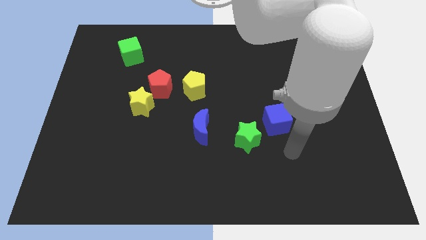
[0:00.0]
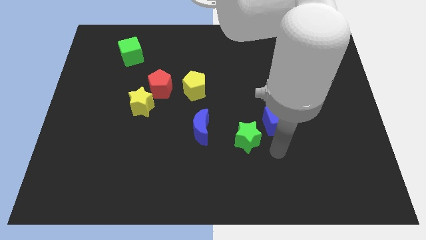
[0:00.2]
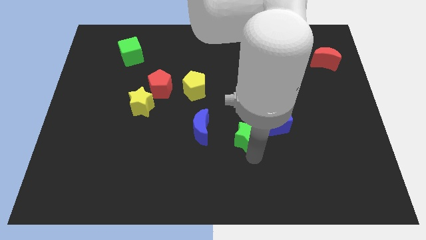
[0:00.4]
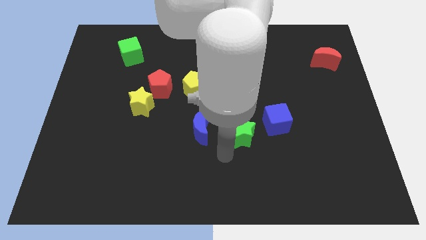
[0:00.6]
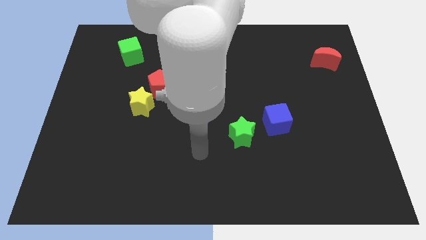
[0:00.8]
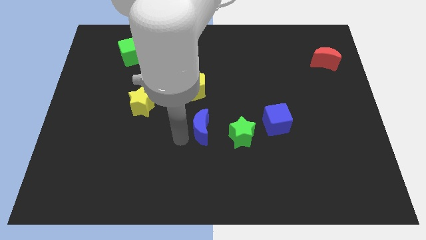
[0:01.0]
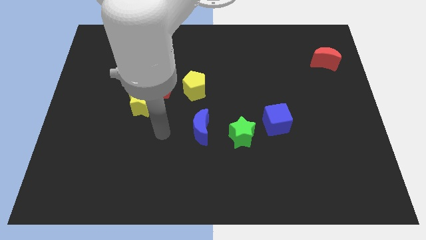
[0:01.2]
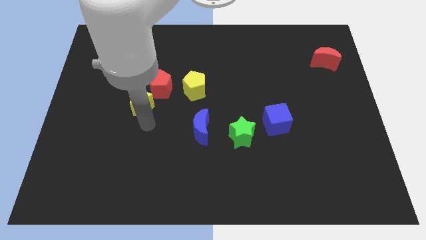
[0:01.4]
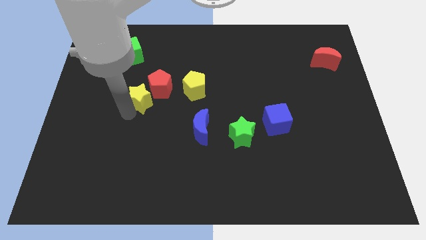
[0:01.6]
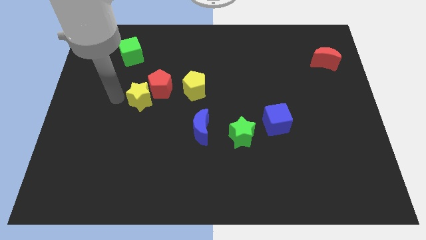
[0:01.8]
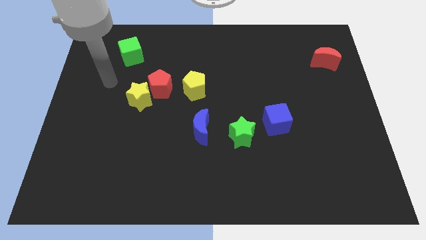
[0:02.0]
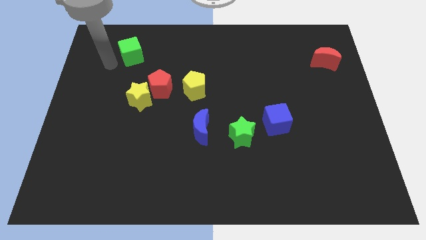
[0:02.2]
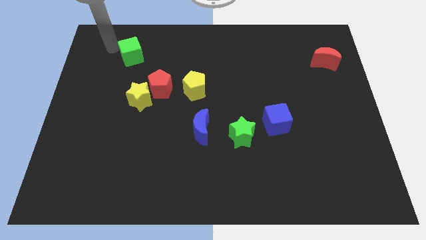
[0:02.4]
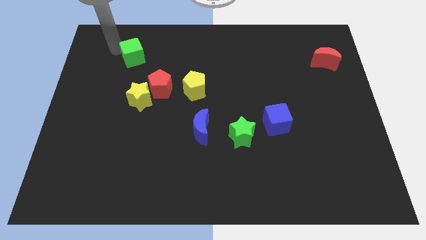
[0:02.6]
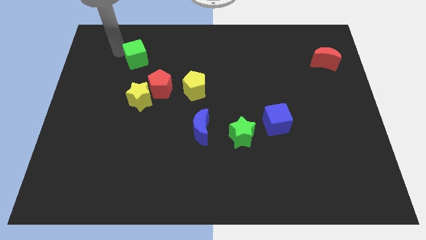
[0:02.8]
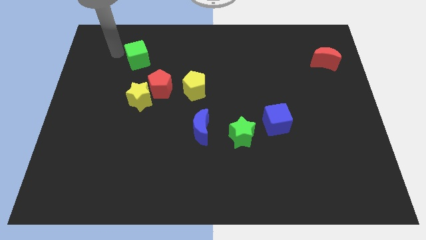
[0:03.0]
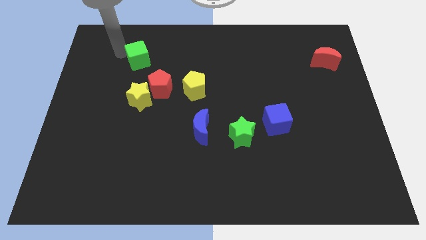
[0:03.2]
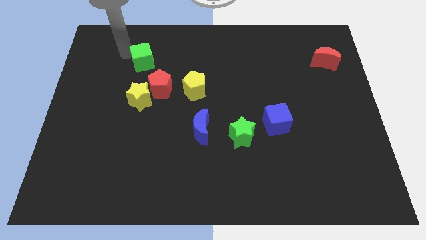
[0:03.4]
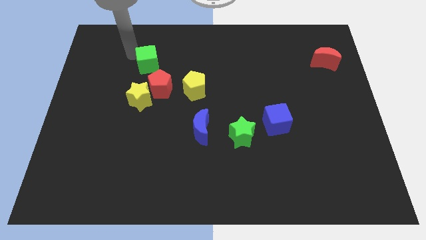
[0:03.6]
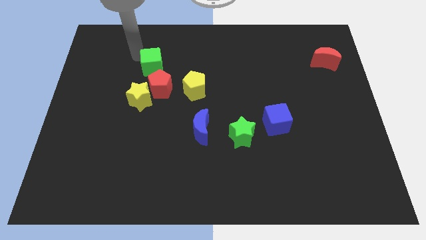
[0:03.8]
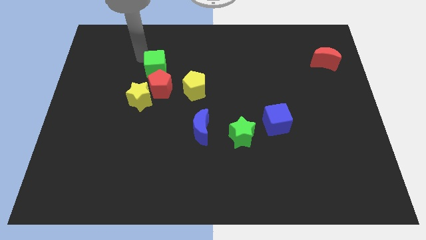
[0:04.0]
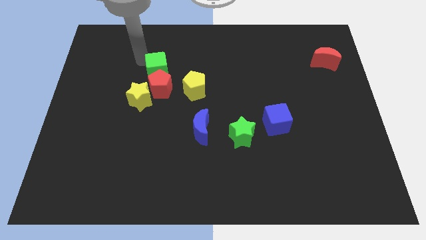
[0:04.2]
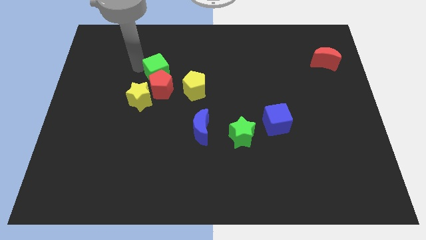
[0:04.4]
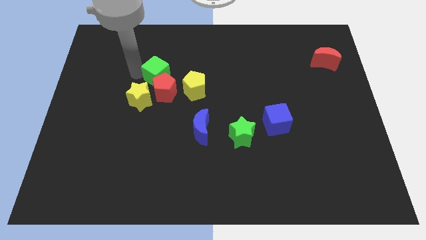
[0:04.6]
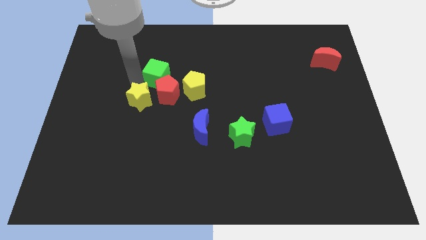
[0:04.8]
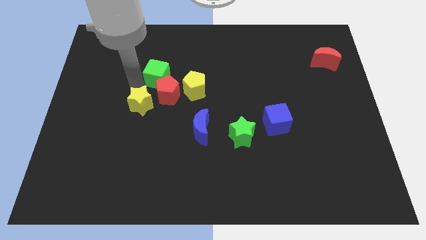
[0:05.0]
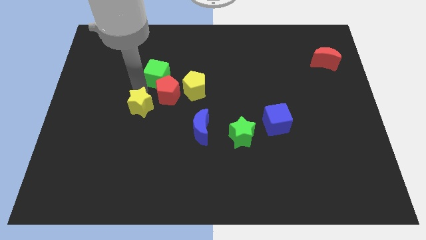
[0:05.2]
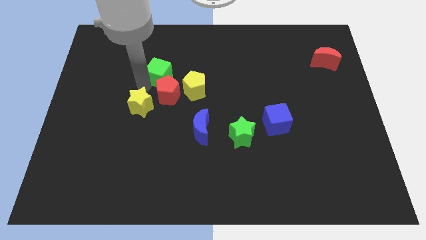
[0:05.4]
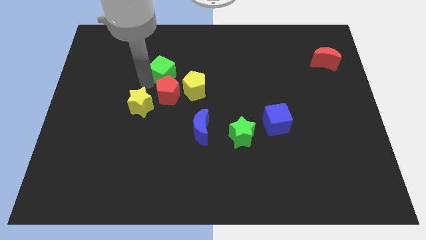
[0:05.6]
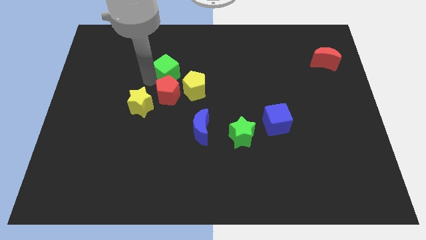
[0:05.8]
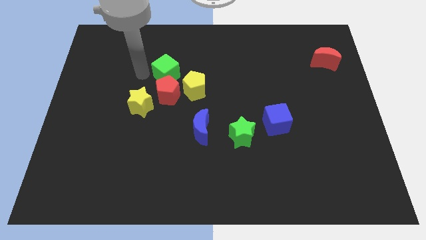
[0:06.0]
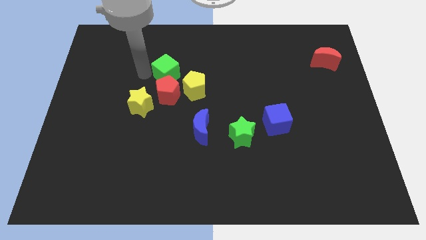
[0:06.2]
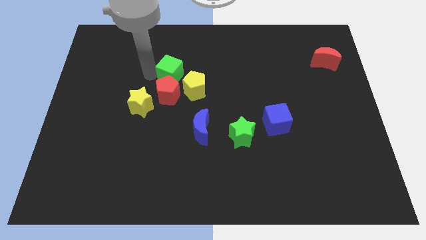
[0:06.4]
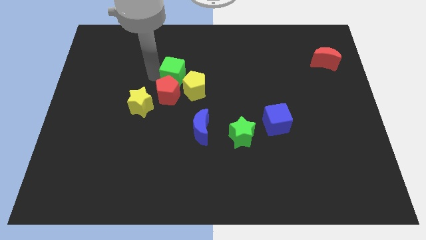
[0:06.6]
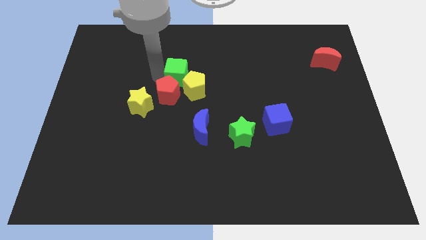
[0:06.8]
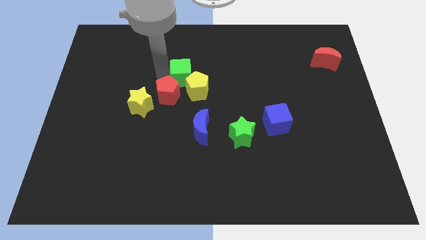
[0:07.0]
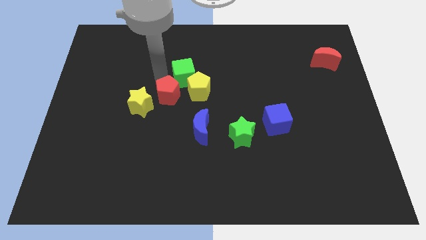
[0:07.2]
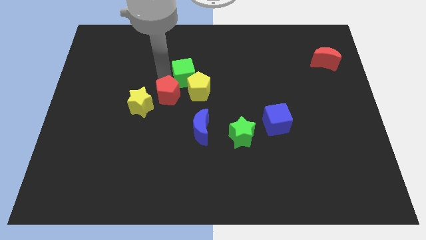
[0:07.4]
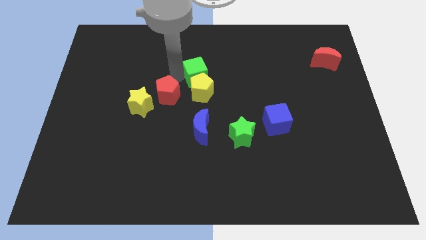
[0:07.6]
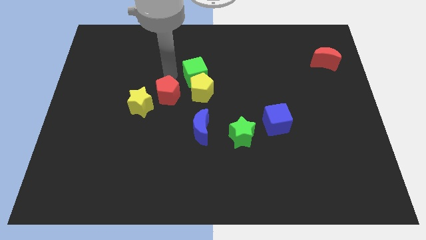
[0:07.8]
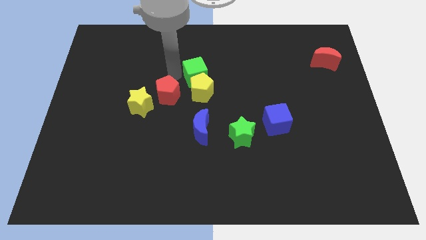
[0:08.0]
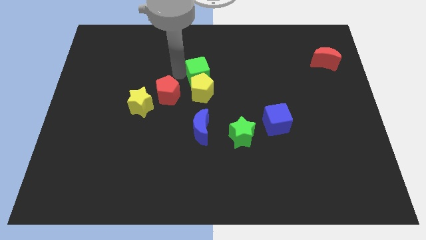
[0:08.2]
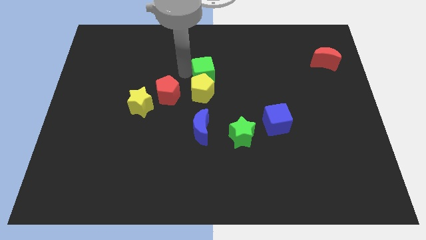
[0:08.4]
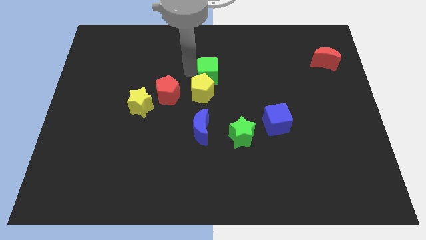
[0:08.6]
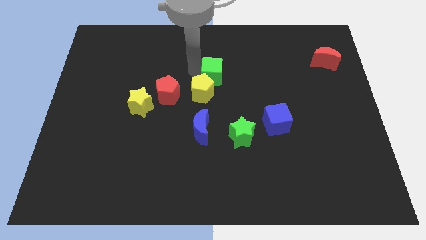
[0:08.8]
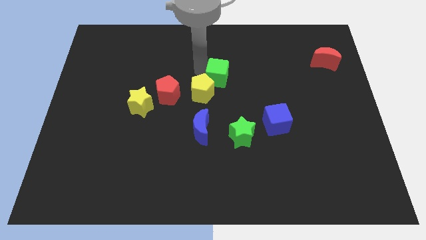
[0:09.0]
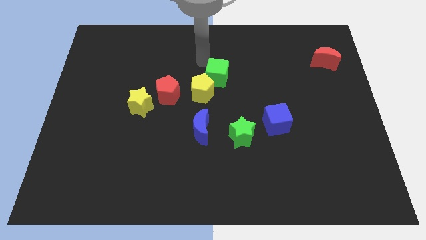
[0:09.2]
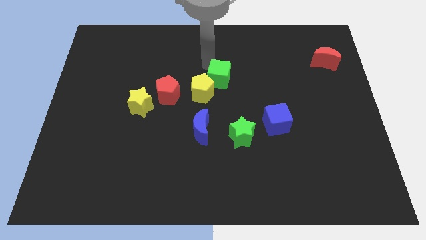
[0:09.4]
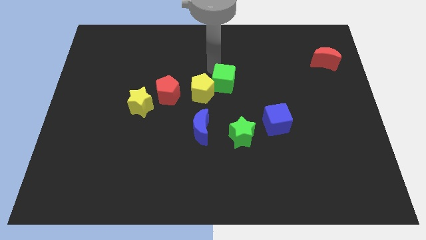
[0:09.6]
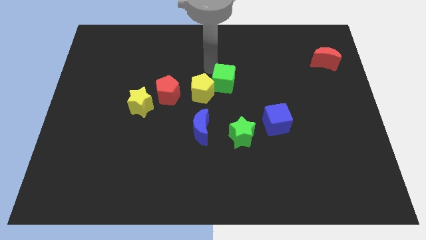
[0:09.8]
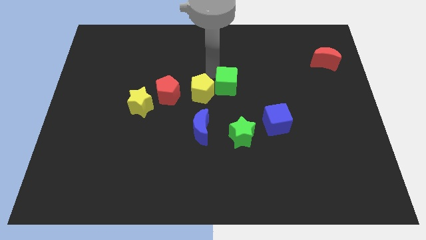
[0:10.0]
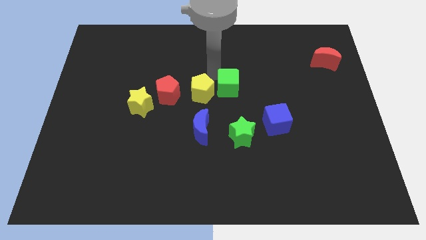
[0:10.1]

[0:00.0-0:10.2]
slide the green cube to the top side of the green star

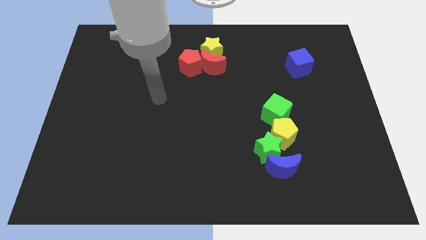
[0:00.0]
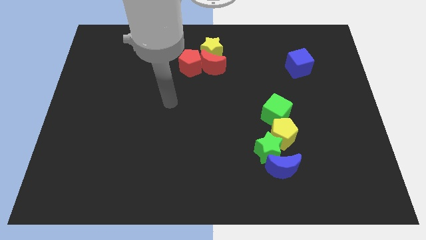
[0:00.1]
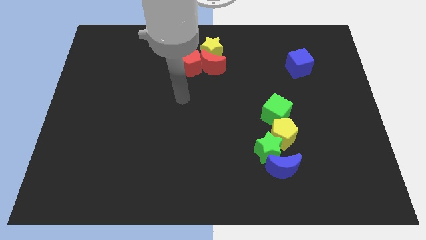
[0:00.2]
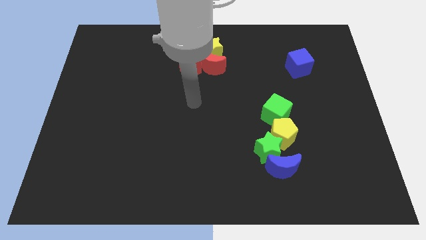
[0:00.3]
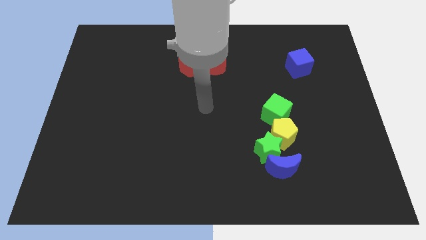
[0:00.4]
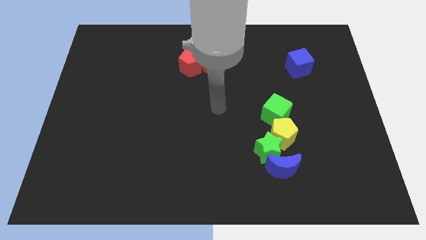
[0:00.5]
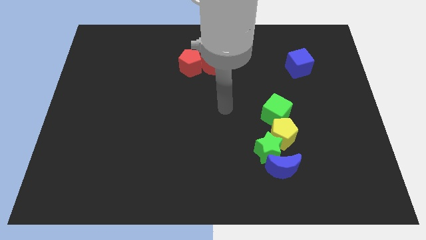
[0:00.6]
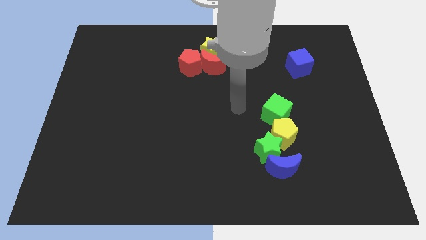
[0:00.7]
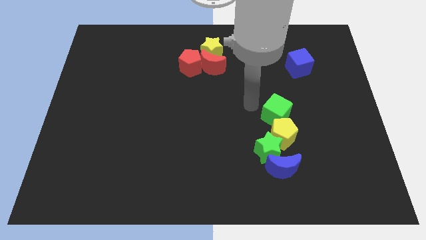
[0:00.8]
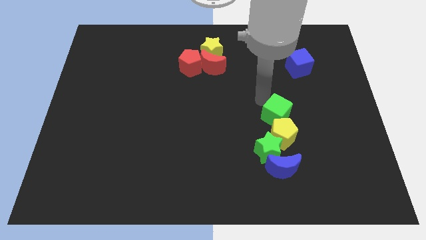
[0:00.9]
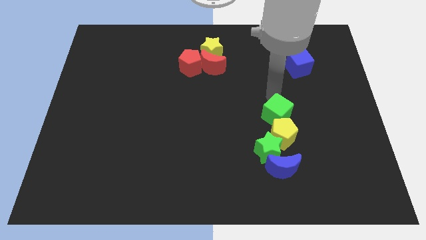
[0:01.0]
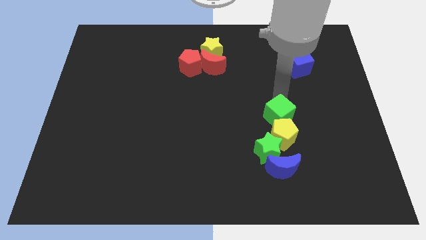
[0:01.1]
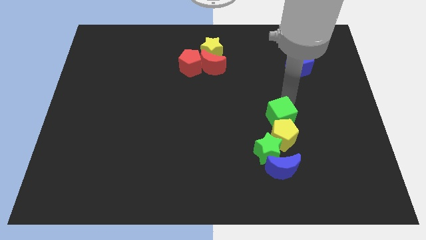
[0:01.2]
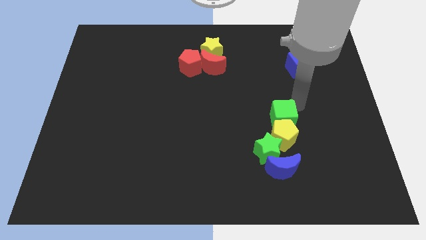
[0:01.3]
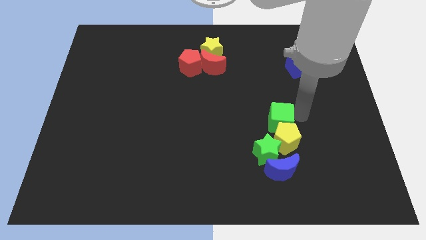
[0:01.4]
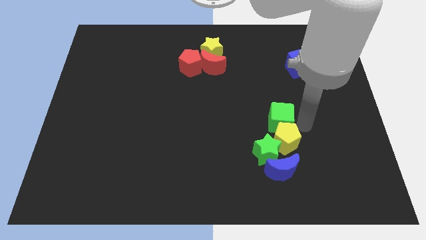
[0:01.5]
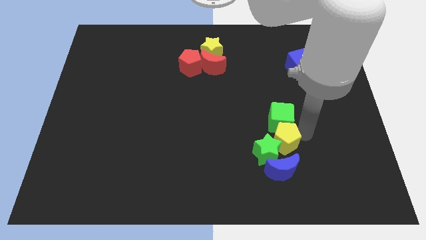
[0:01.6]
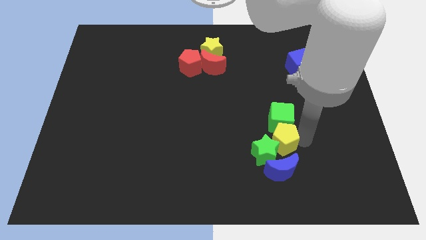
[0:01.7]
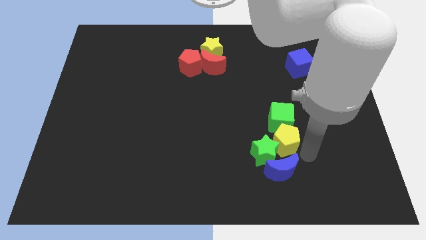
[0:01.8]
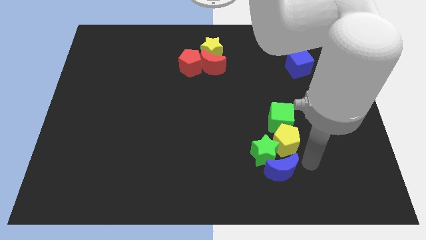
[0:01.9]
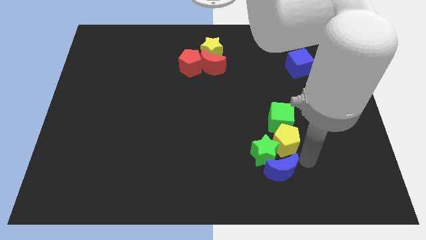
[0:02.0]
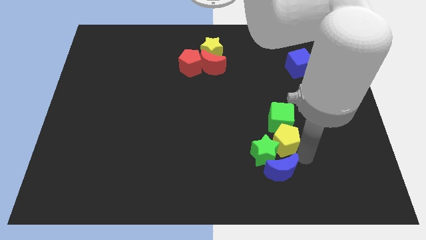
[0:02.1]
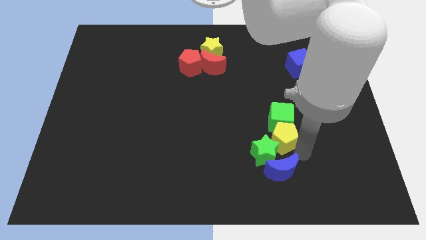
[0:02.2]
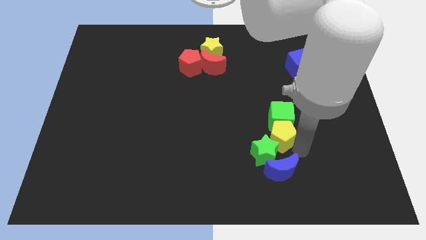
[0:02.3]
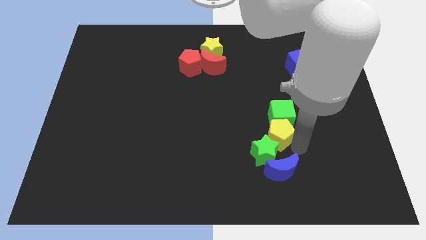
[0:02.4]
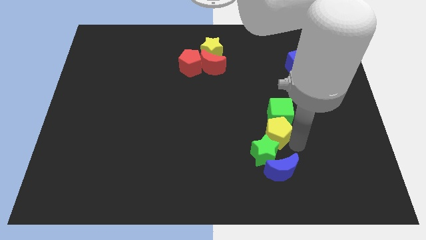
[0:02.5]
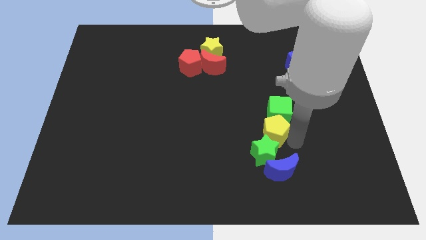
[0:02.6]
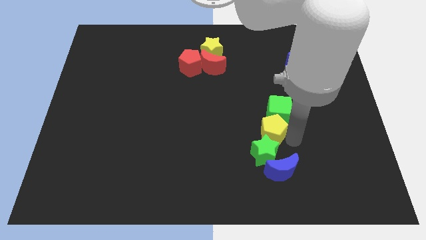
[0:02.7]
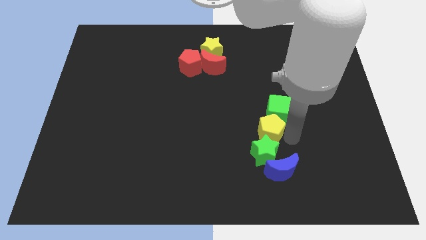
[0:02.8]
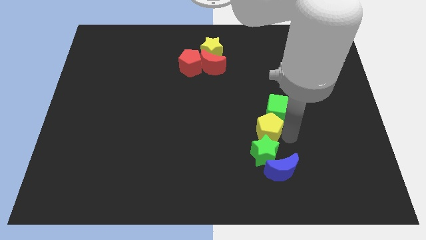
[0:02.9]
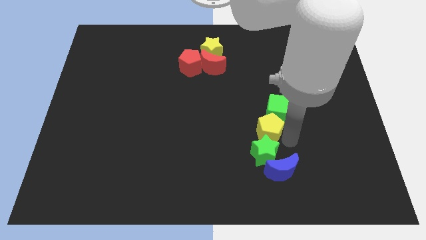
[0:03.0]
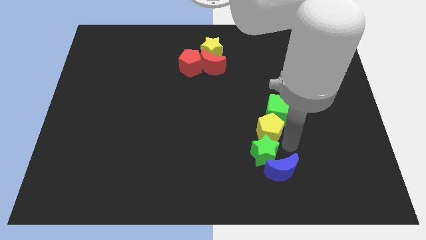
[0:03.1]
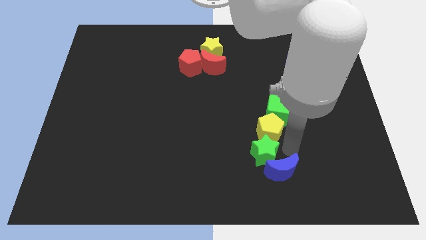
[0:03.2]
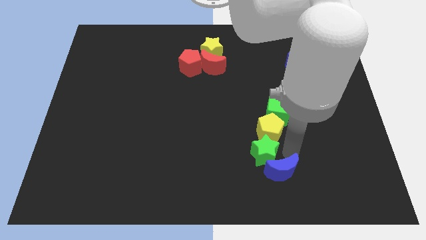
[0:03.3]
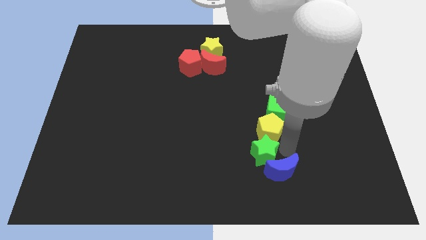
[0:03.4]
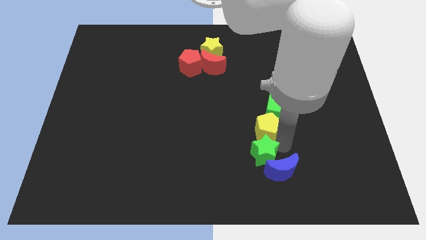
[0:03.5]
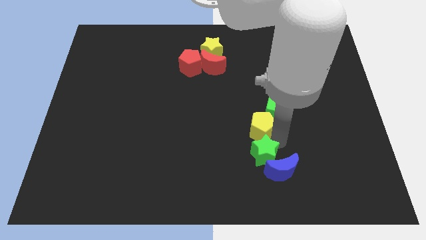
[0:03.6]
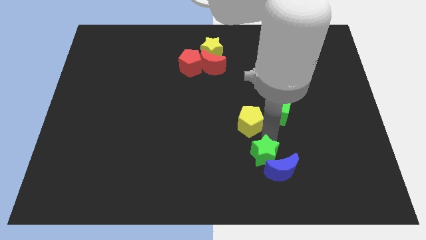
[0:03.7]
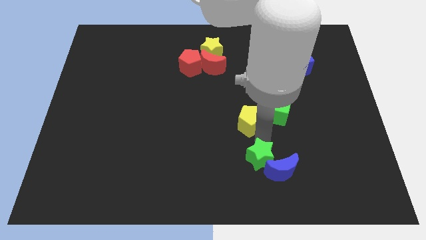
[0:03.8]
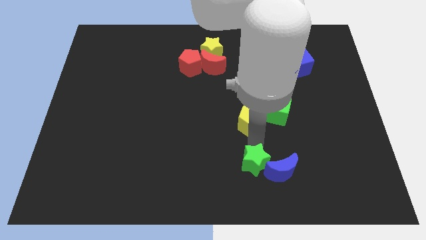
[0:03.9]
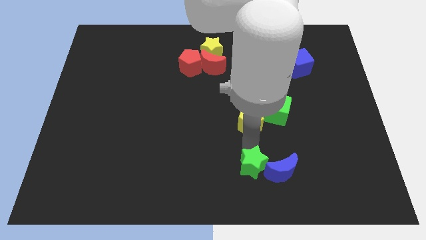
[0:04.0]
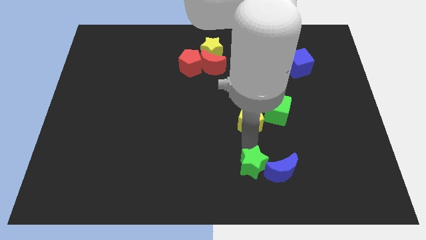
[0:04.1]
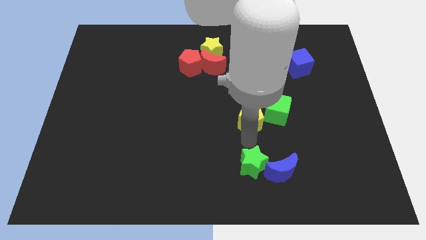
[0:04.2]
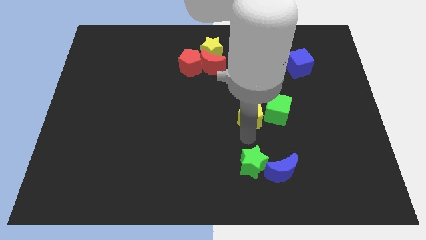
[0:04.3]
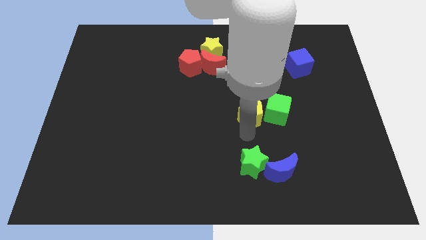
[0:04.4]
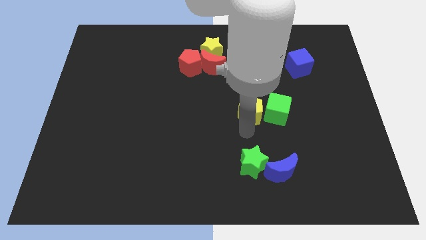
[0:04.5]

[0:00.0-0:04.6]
push the yellow pentagon to the top left side of the green cube
